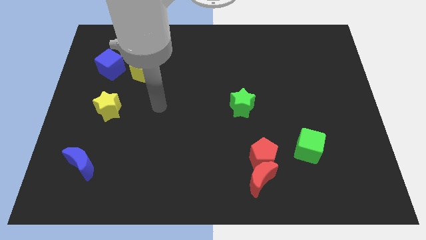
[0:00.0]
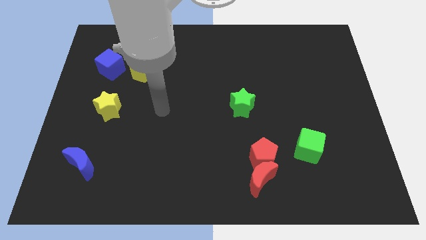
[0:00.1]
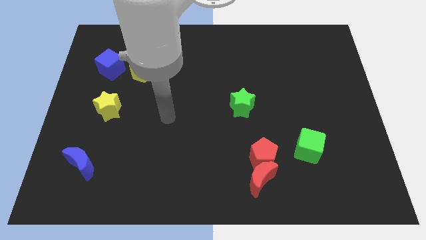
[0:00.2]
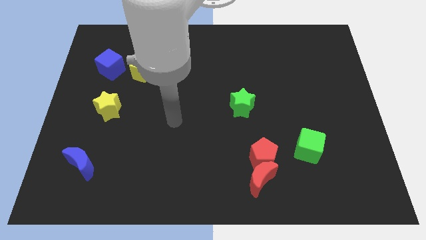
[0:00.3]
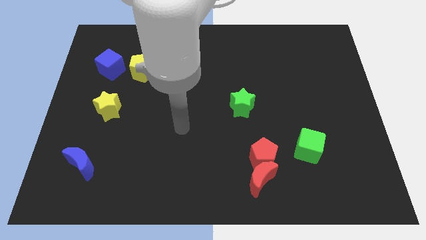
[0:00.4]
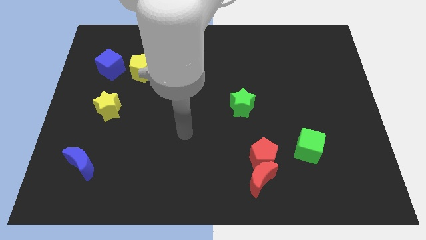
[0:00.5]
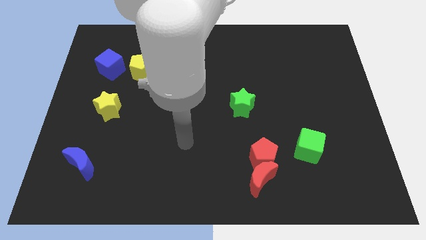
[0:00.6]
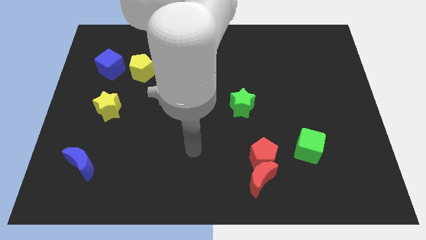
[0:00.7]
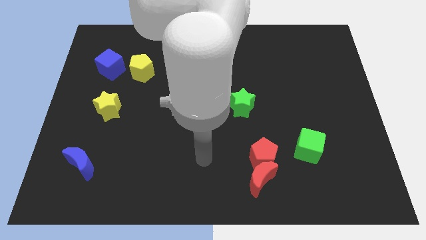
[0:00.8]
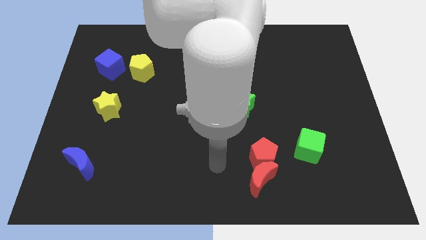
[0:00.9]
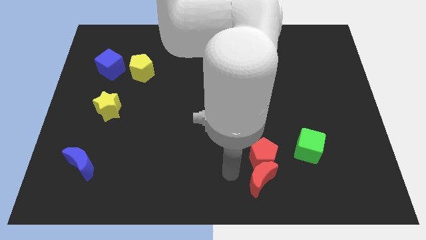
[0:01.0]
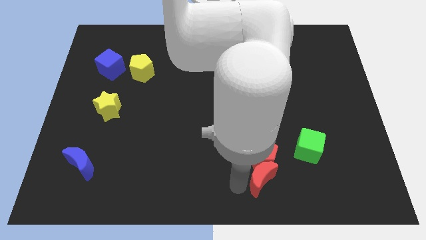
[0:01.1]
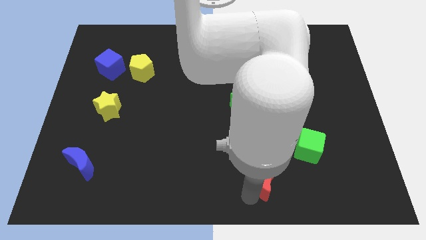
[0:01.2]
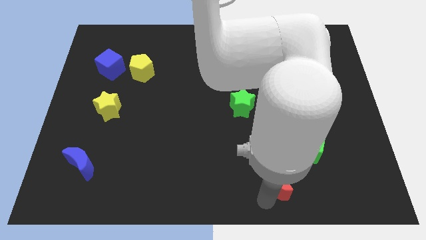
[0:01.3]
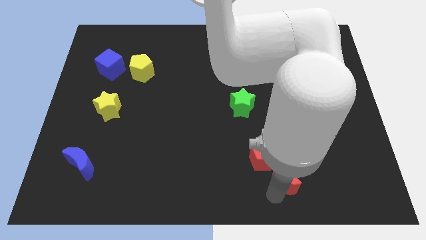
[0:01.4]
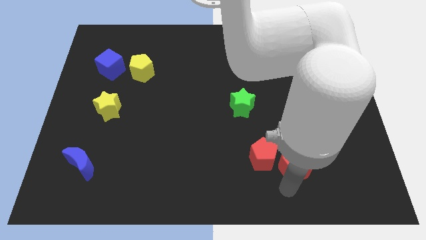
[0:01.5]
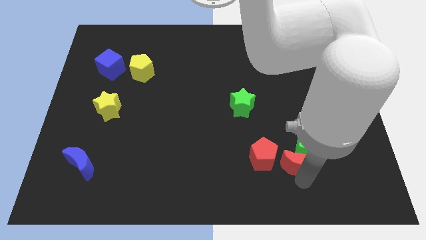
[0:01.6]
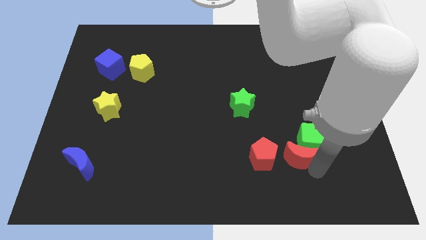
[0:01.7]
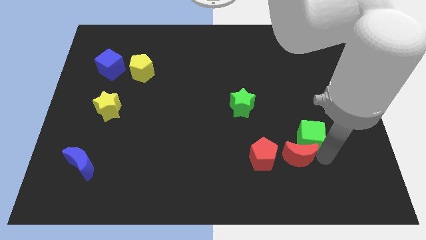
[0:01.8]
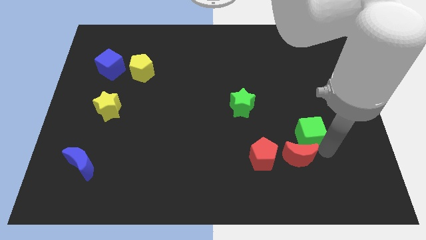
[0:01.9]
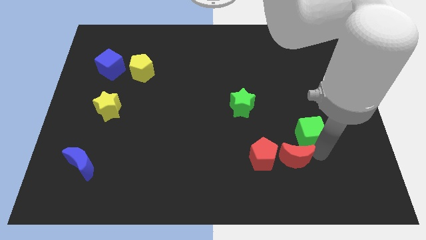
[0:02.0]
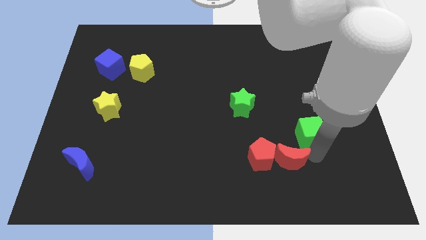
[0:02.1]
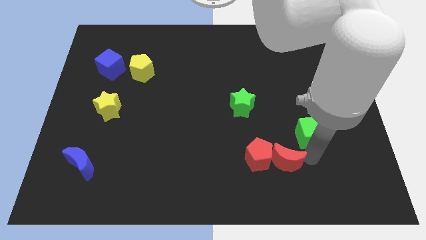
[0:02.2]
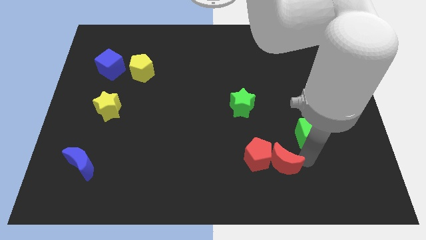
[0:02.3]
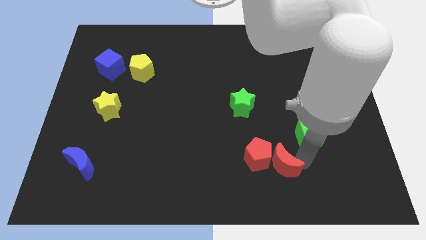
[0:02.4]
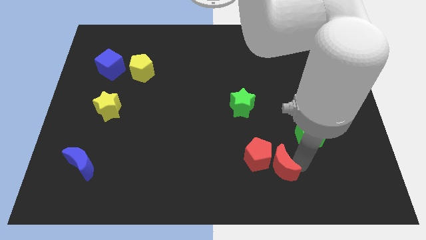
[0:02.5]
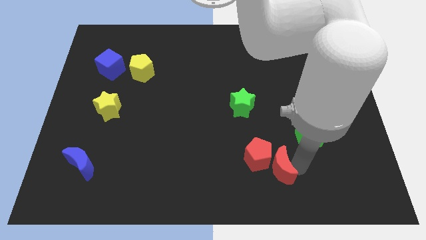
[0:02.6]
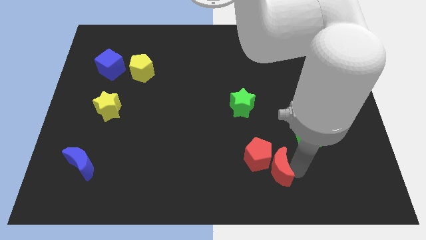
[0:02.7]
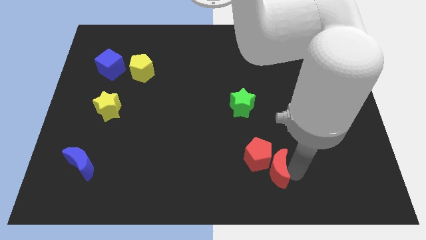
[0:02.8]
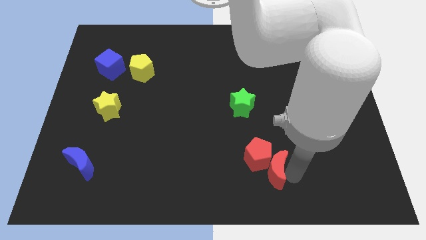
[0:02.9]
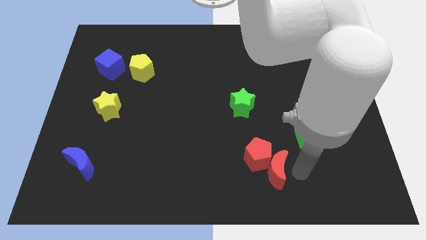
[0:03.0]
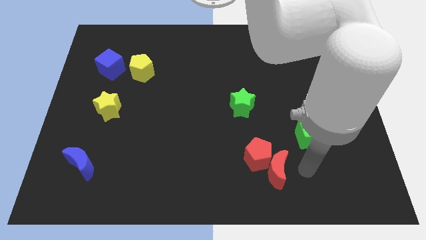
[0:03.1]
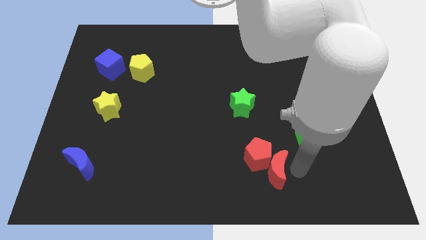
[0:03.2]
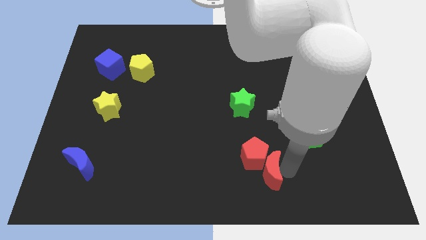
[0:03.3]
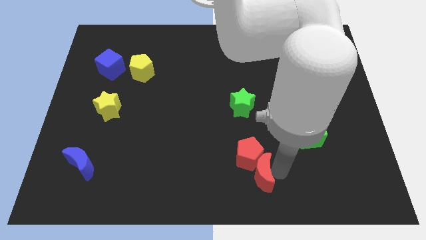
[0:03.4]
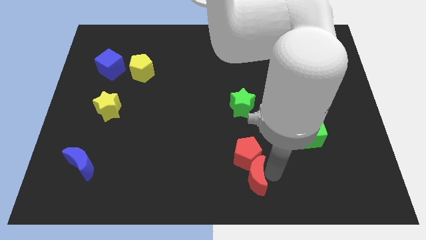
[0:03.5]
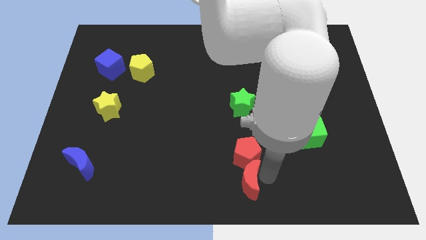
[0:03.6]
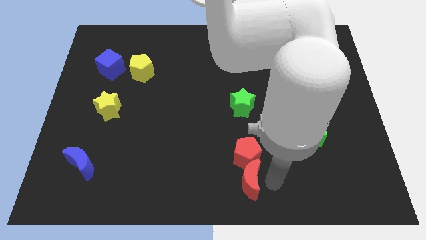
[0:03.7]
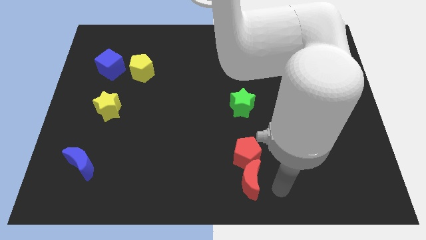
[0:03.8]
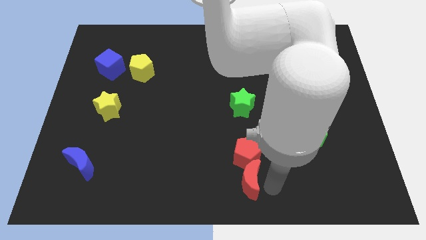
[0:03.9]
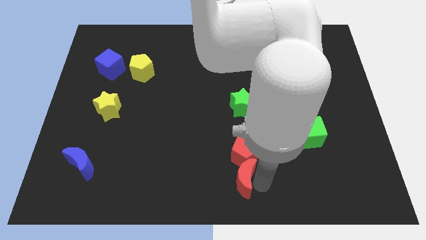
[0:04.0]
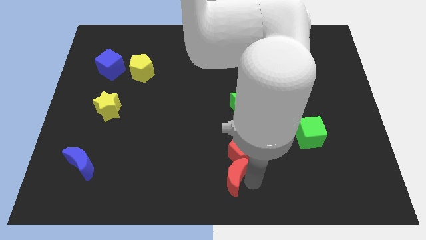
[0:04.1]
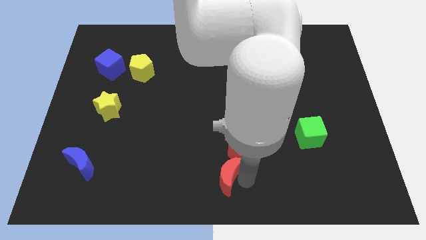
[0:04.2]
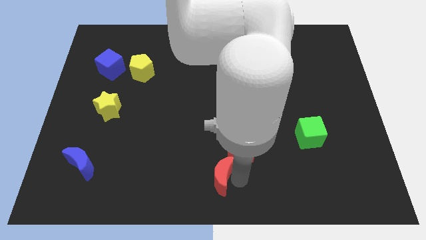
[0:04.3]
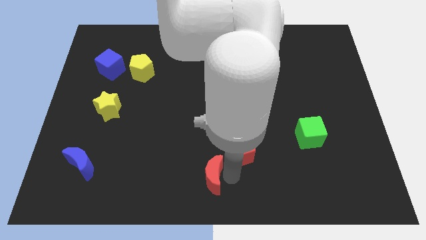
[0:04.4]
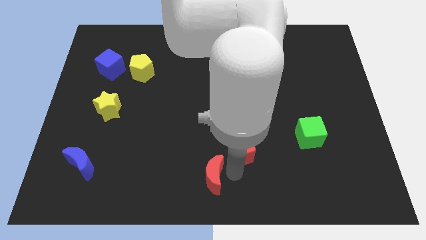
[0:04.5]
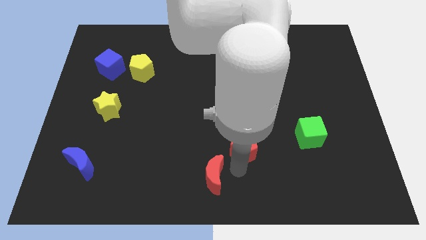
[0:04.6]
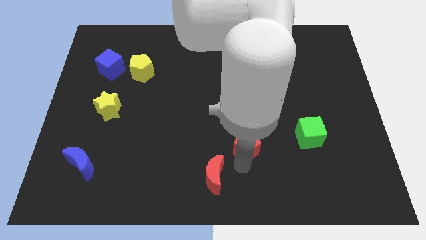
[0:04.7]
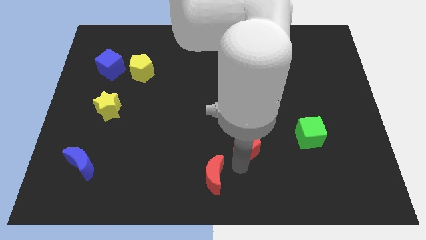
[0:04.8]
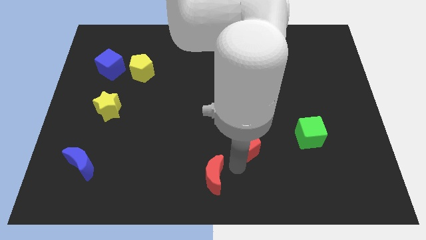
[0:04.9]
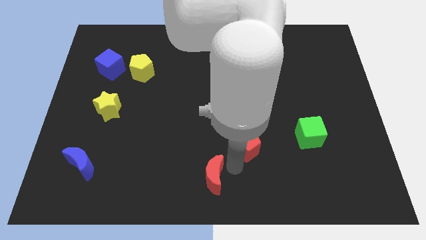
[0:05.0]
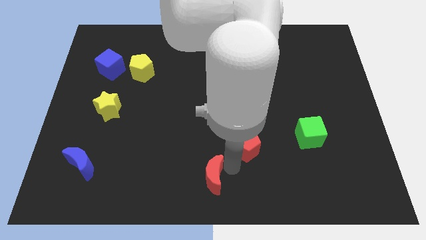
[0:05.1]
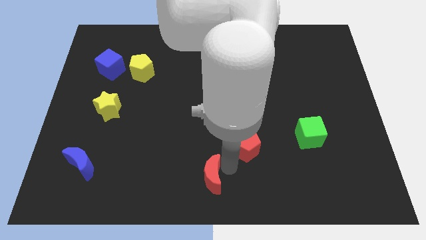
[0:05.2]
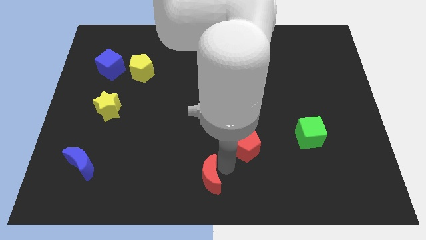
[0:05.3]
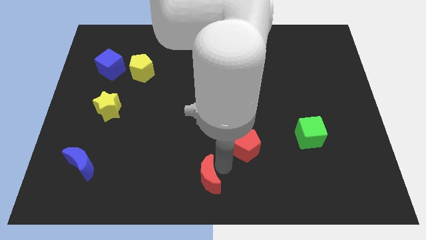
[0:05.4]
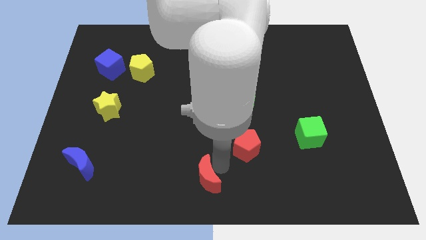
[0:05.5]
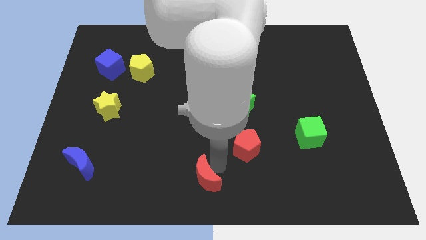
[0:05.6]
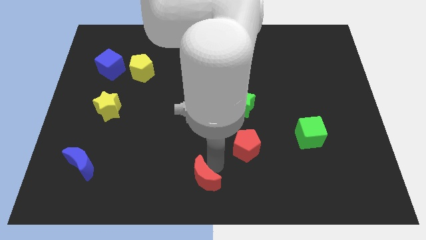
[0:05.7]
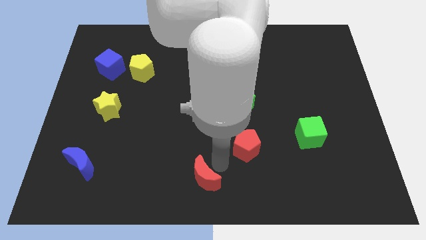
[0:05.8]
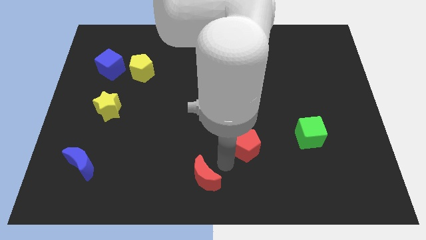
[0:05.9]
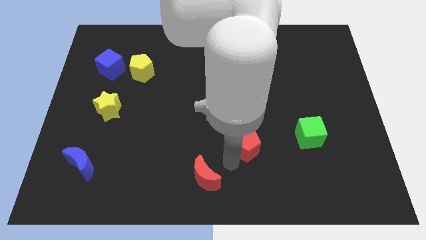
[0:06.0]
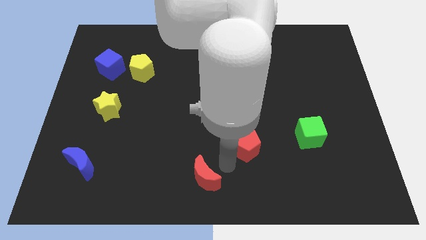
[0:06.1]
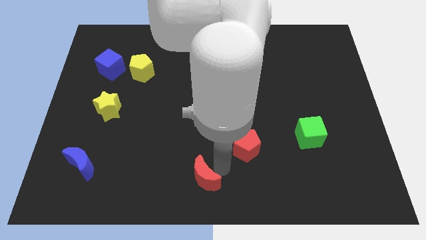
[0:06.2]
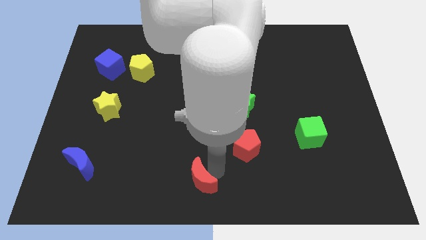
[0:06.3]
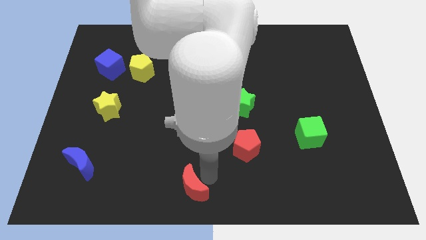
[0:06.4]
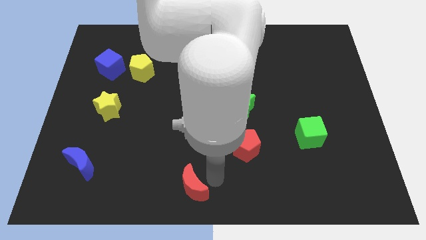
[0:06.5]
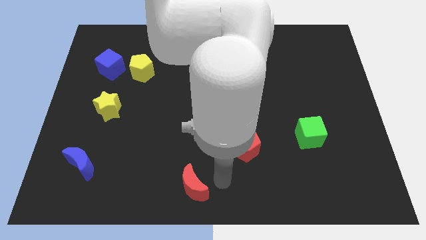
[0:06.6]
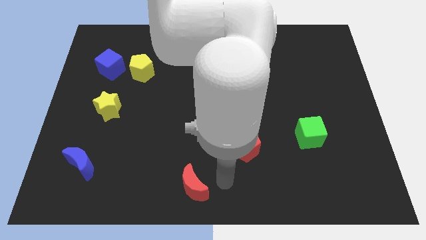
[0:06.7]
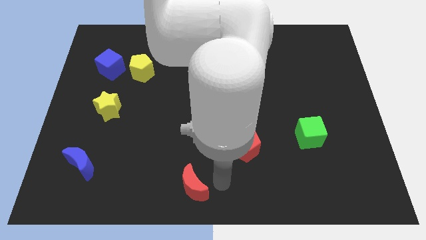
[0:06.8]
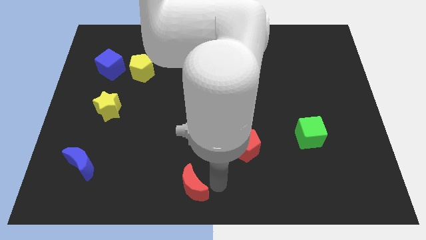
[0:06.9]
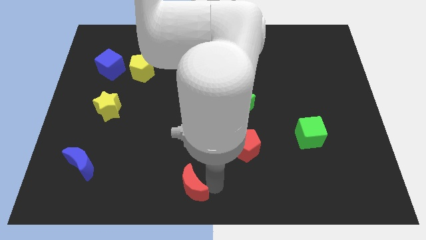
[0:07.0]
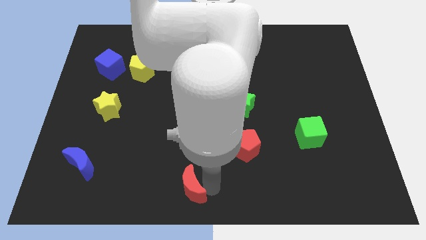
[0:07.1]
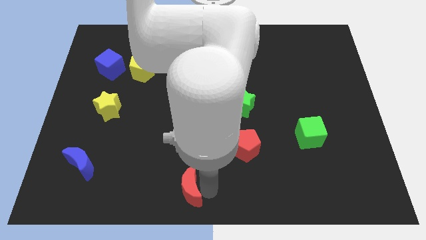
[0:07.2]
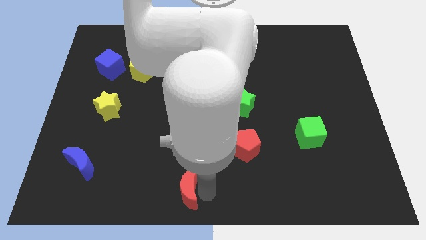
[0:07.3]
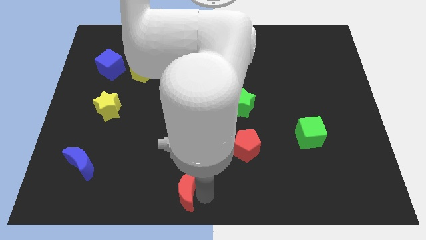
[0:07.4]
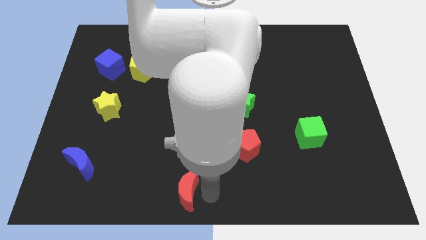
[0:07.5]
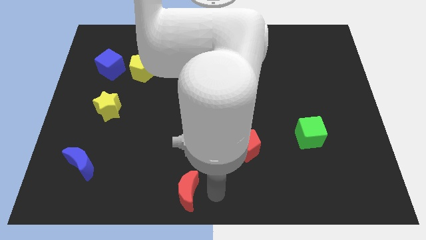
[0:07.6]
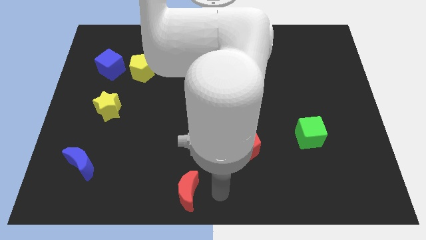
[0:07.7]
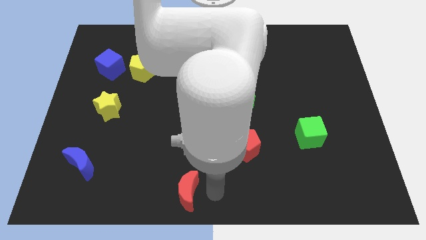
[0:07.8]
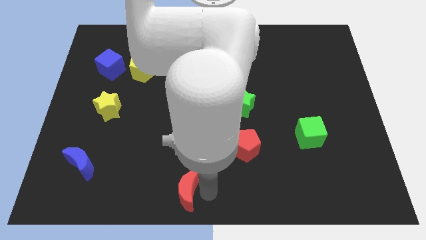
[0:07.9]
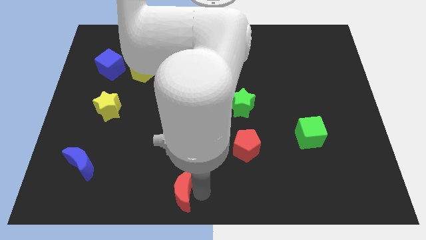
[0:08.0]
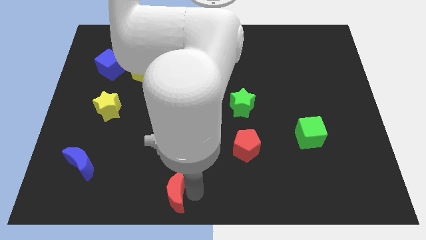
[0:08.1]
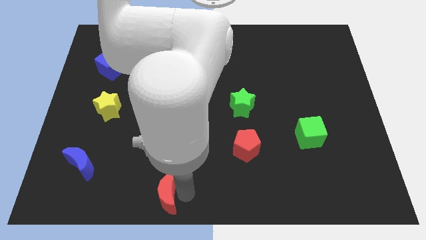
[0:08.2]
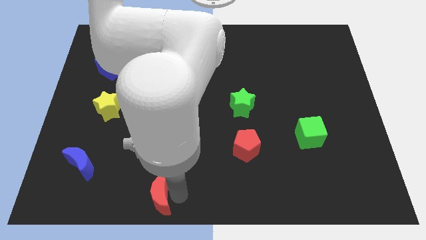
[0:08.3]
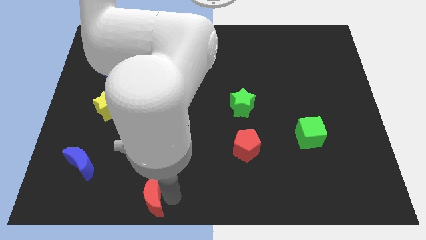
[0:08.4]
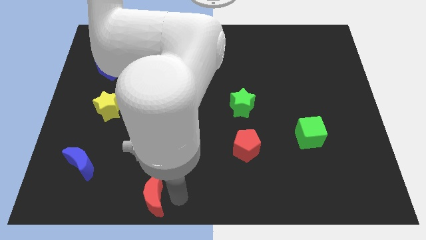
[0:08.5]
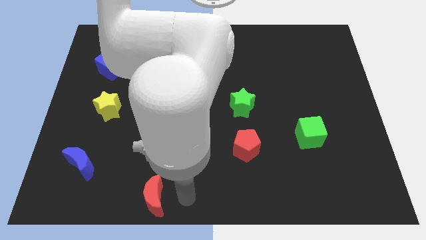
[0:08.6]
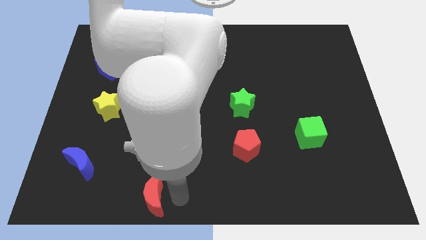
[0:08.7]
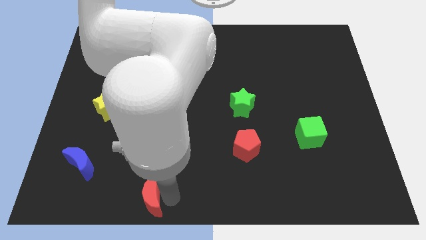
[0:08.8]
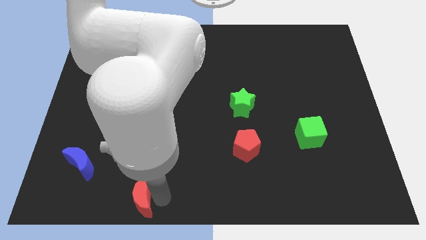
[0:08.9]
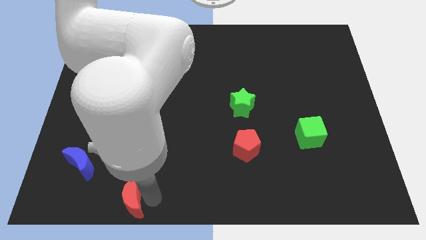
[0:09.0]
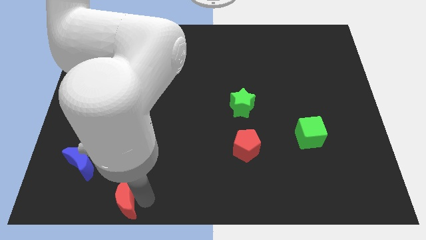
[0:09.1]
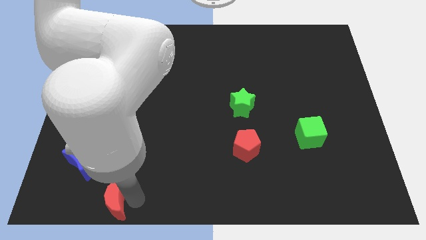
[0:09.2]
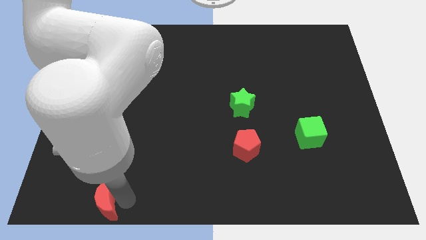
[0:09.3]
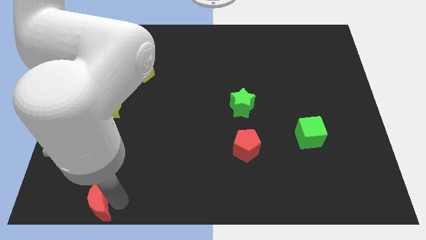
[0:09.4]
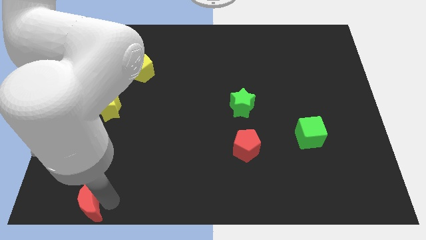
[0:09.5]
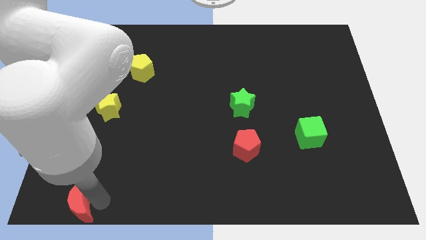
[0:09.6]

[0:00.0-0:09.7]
push the red moon to the bottom left of the board
